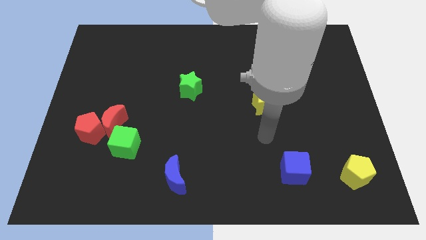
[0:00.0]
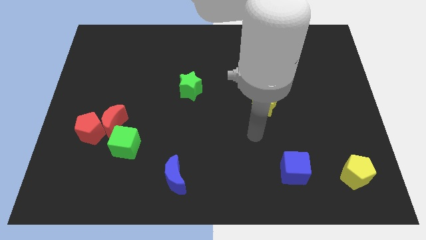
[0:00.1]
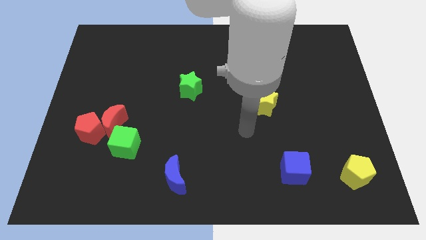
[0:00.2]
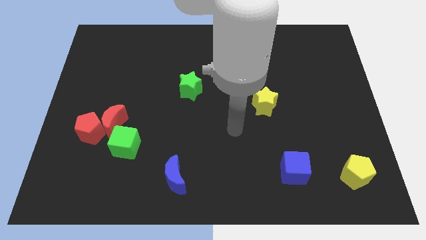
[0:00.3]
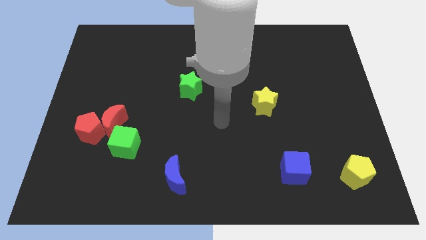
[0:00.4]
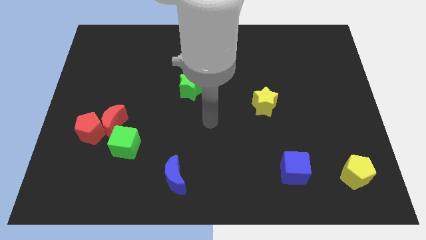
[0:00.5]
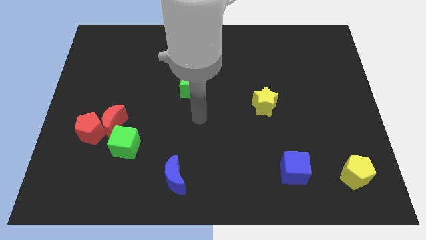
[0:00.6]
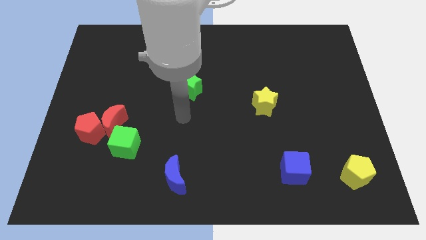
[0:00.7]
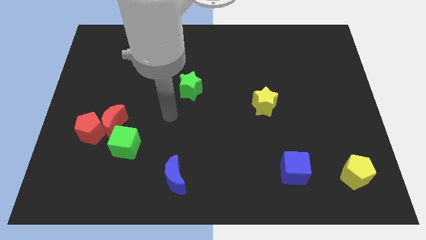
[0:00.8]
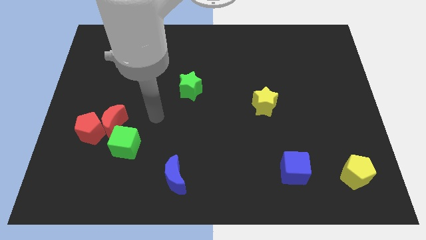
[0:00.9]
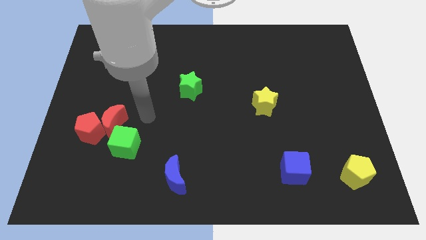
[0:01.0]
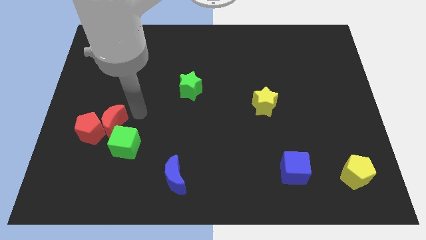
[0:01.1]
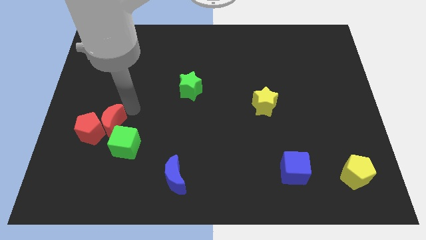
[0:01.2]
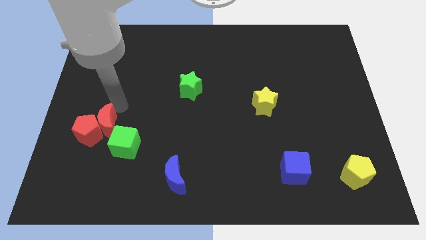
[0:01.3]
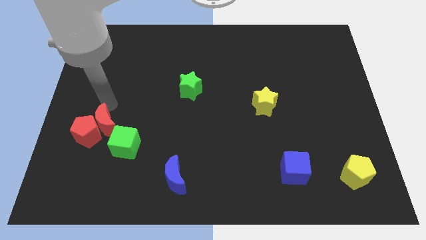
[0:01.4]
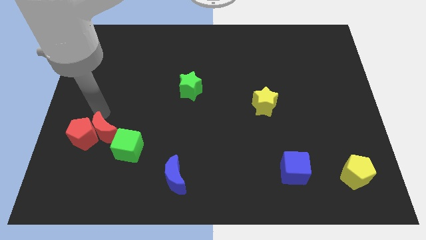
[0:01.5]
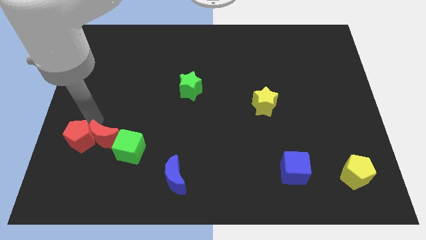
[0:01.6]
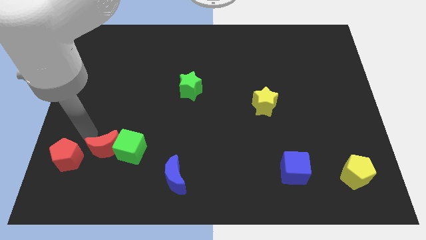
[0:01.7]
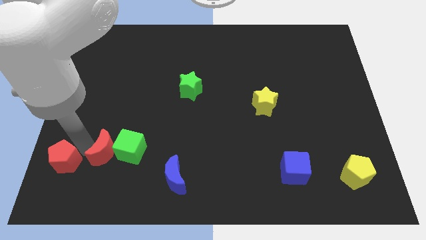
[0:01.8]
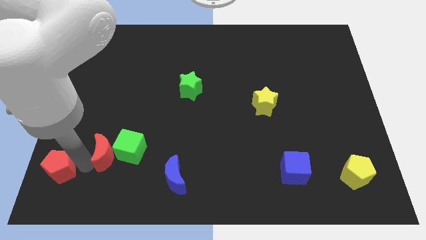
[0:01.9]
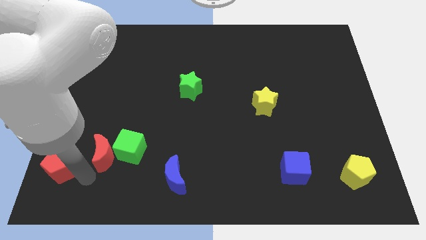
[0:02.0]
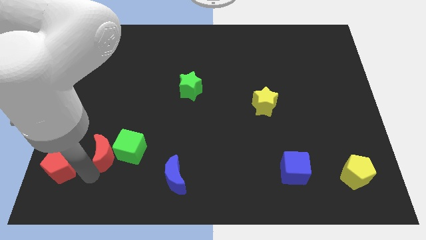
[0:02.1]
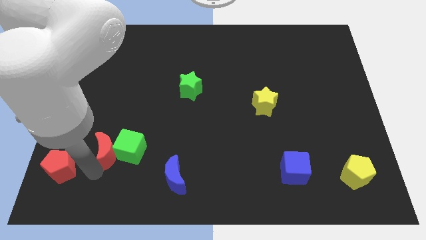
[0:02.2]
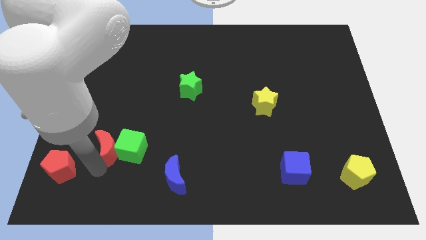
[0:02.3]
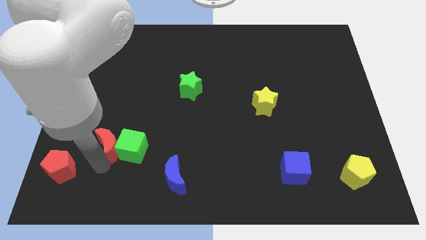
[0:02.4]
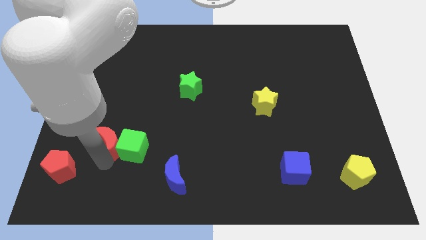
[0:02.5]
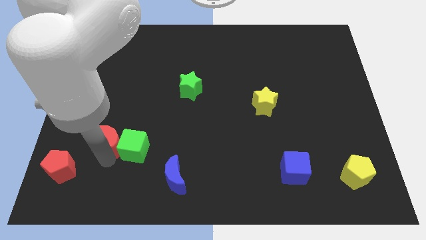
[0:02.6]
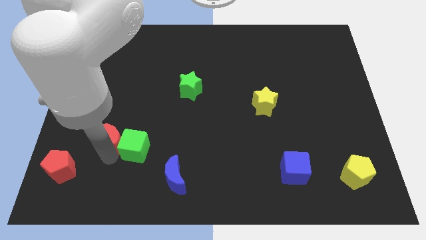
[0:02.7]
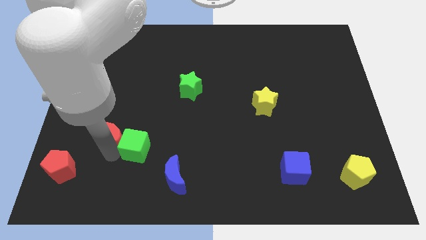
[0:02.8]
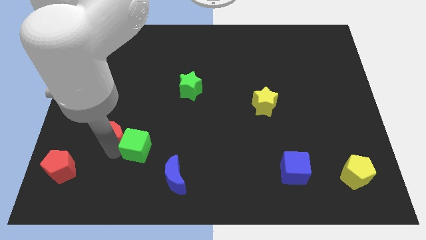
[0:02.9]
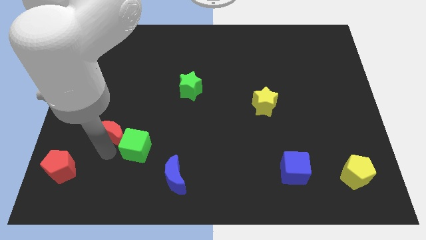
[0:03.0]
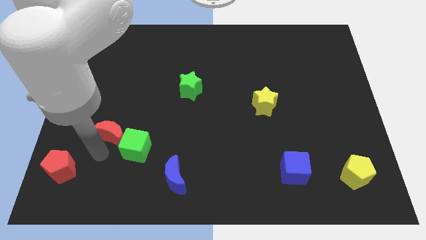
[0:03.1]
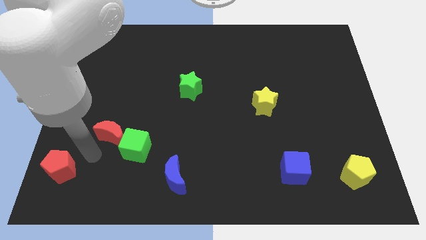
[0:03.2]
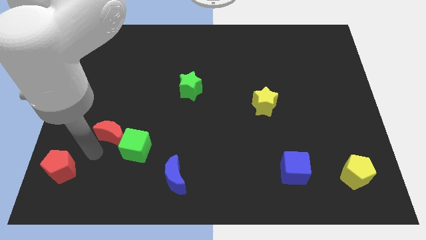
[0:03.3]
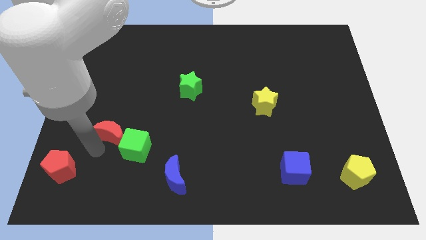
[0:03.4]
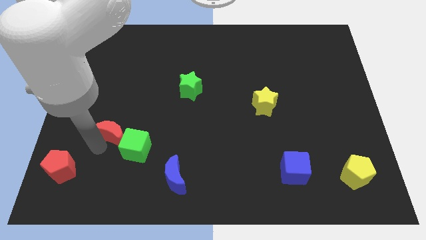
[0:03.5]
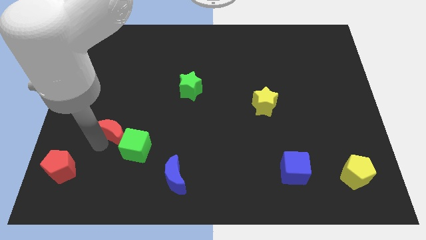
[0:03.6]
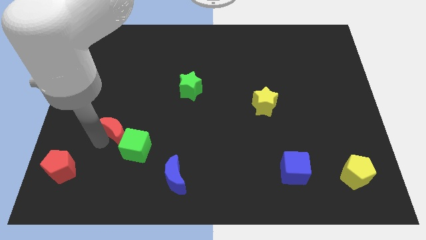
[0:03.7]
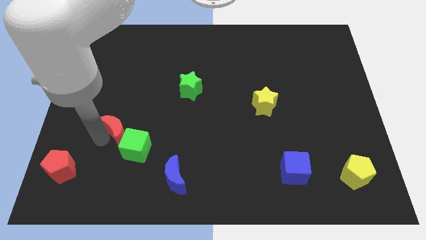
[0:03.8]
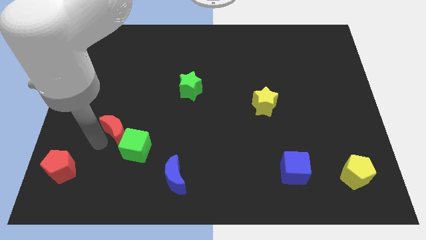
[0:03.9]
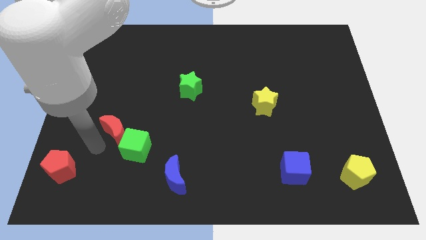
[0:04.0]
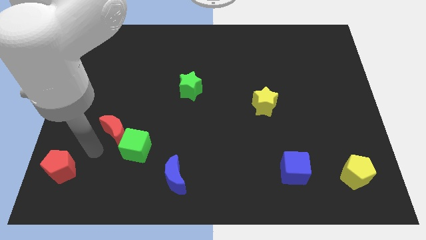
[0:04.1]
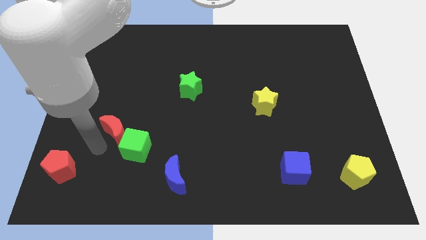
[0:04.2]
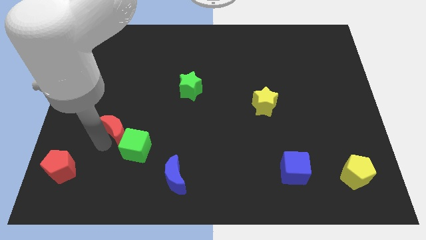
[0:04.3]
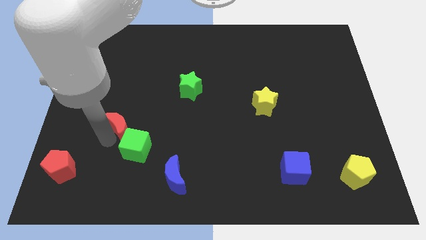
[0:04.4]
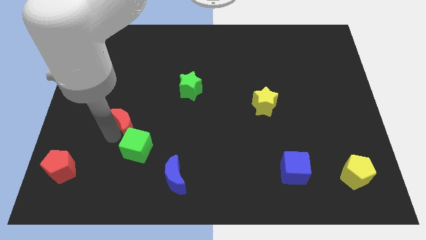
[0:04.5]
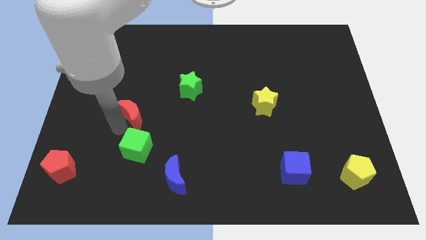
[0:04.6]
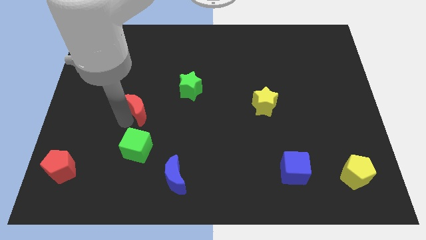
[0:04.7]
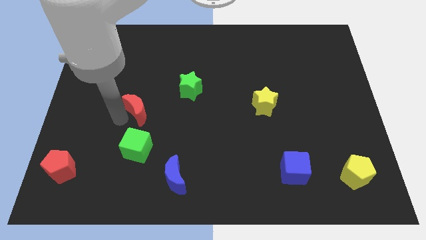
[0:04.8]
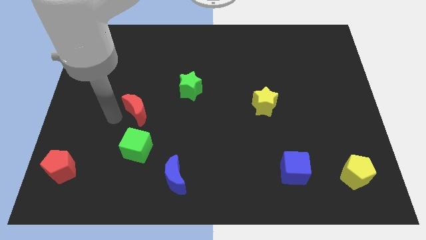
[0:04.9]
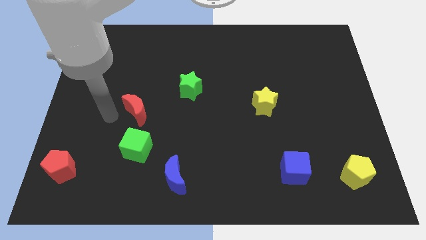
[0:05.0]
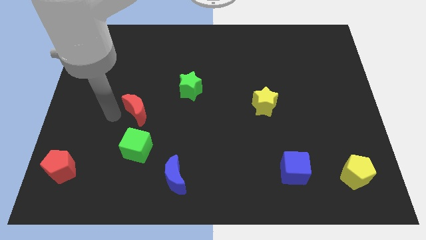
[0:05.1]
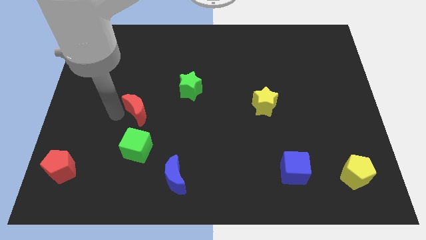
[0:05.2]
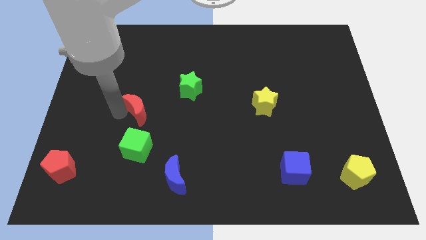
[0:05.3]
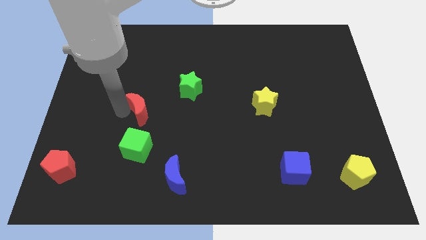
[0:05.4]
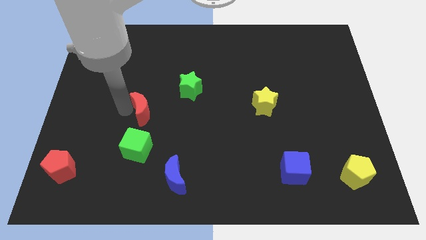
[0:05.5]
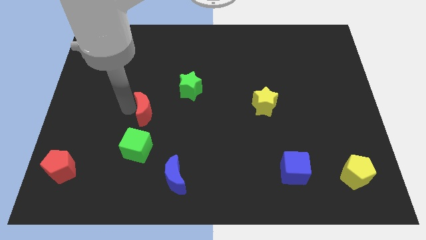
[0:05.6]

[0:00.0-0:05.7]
slide the red moon diagonally down and to the left of the green star

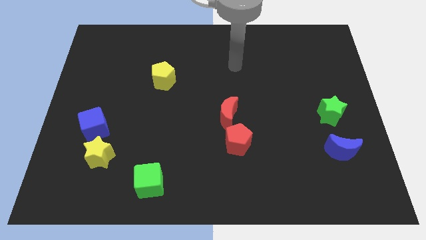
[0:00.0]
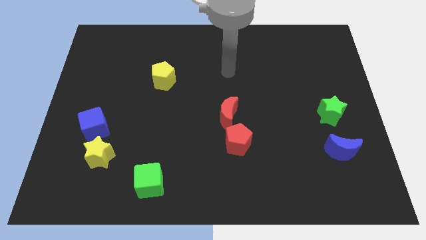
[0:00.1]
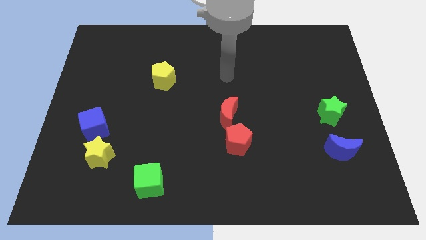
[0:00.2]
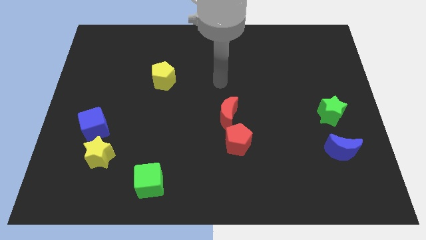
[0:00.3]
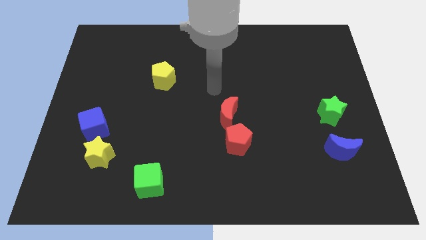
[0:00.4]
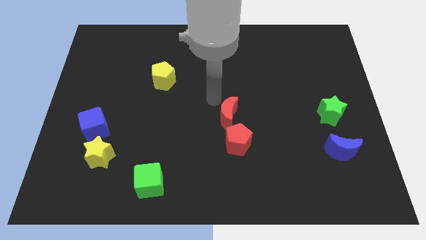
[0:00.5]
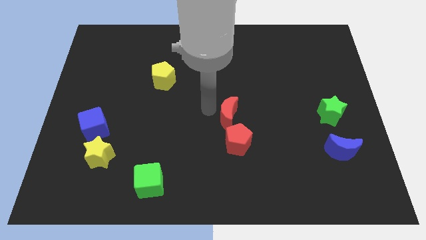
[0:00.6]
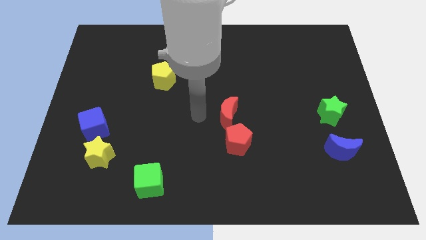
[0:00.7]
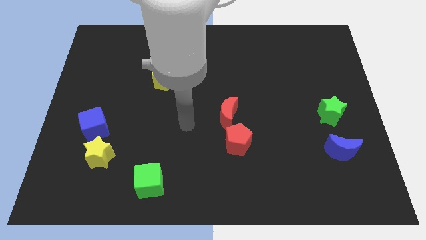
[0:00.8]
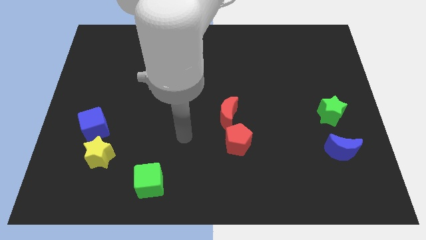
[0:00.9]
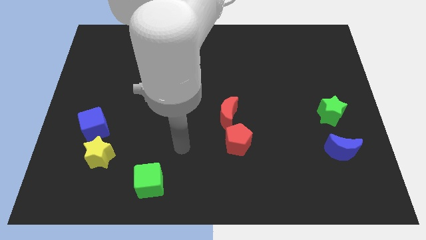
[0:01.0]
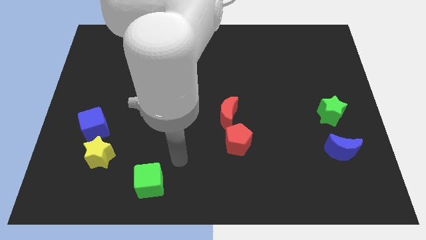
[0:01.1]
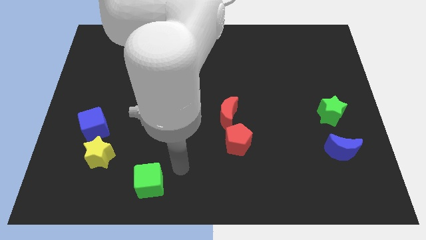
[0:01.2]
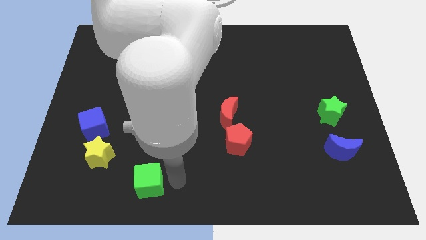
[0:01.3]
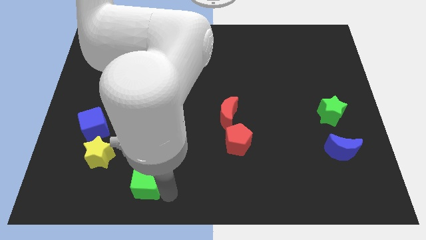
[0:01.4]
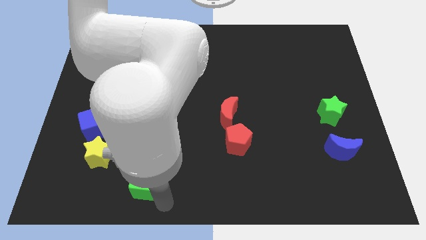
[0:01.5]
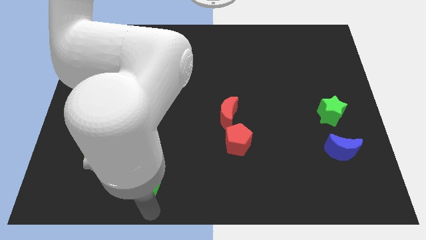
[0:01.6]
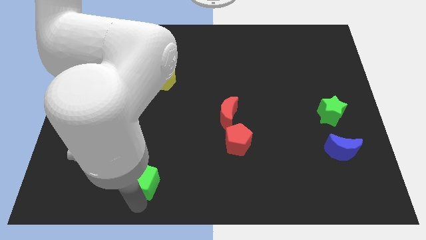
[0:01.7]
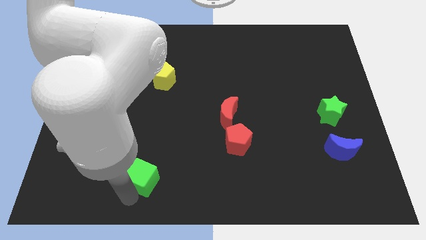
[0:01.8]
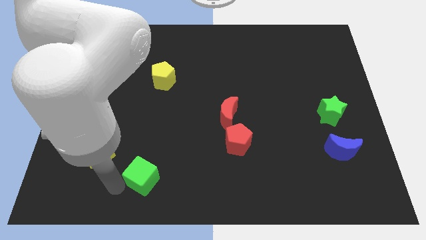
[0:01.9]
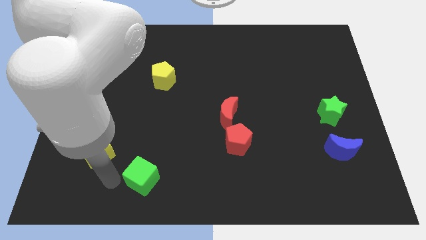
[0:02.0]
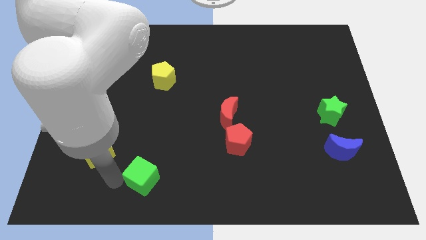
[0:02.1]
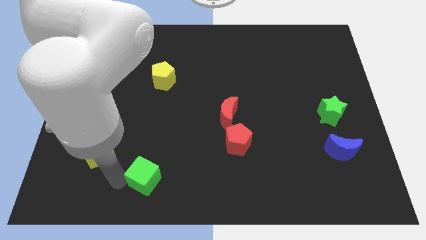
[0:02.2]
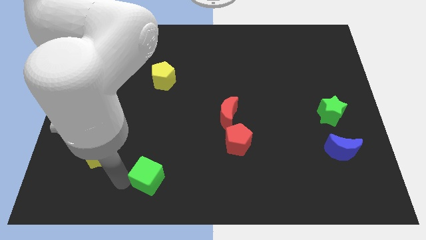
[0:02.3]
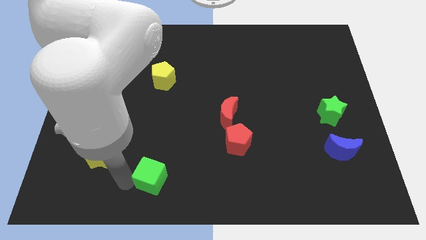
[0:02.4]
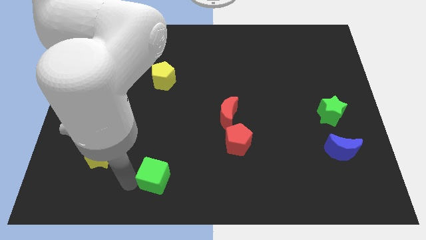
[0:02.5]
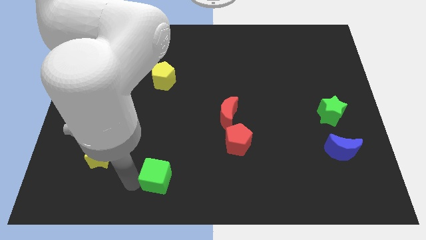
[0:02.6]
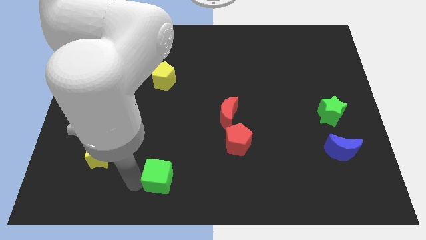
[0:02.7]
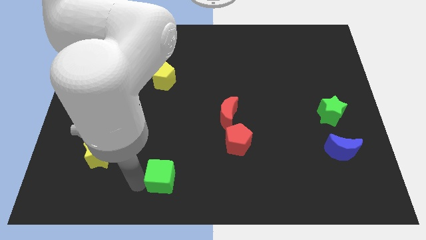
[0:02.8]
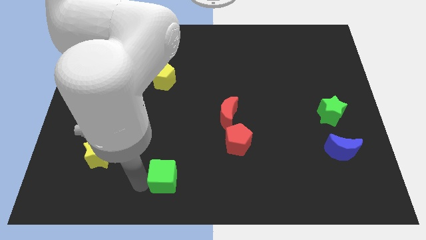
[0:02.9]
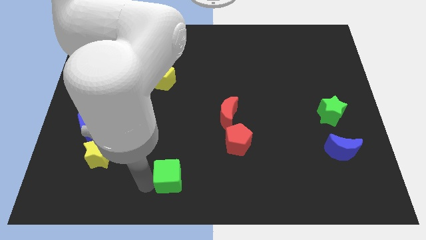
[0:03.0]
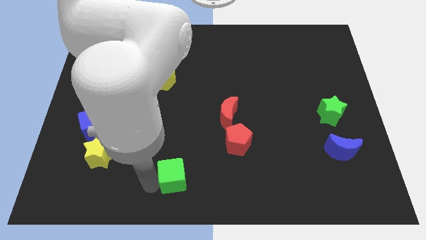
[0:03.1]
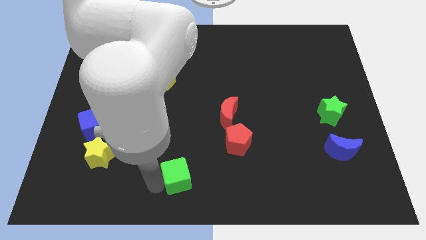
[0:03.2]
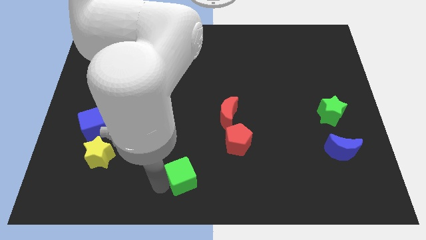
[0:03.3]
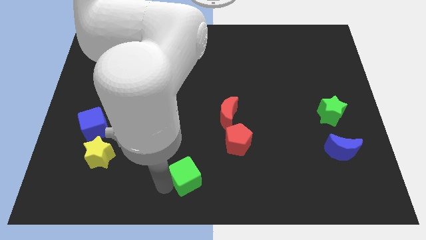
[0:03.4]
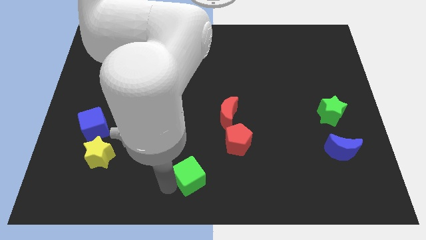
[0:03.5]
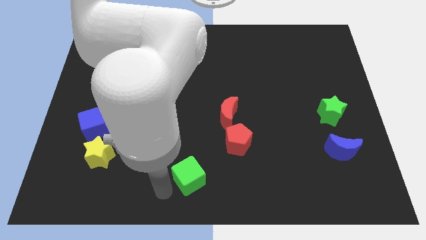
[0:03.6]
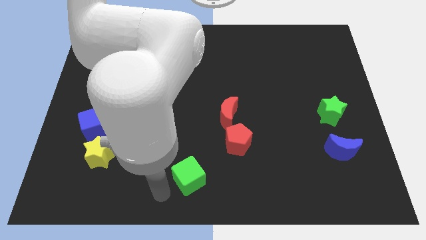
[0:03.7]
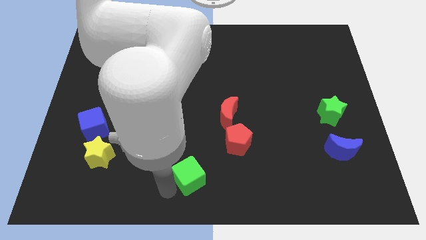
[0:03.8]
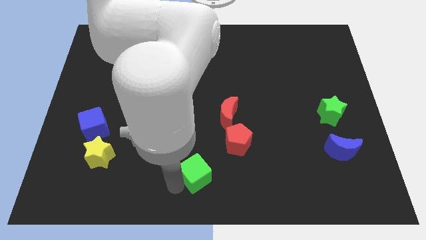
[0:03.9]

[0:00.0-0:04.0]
slide the green cube to the bottom left of the red pentagon
